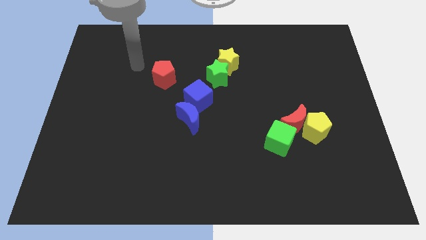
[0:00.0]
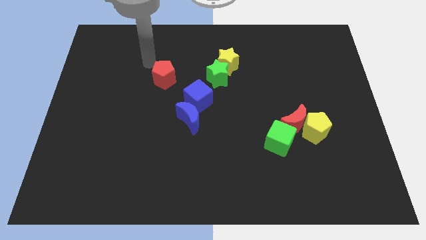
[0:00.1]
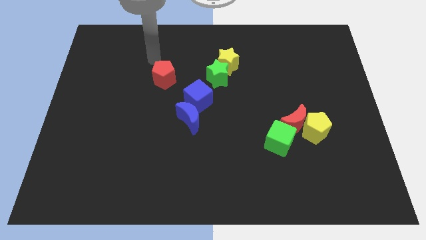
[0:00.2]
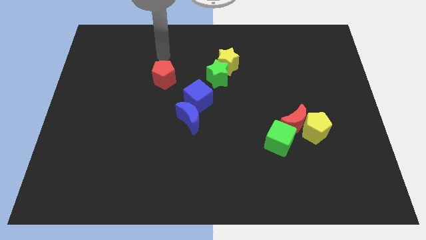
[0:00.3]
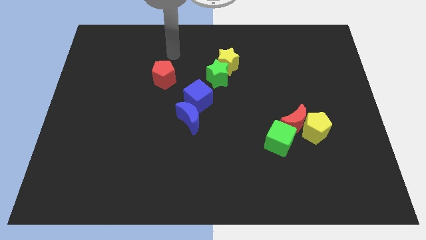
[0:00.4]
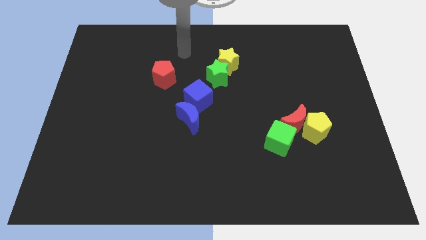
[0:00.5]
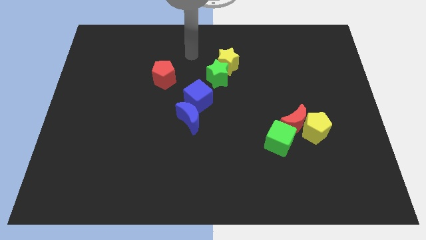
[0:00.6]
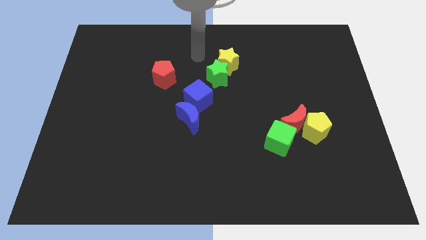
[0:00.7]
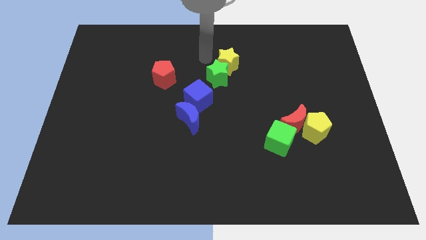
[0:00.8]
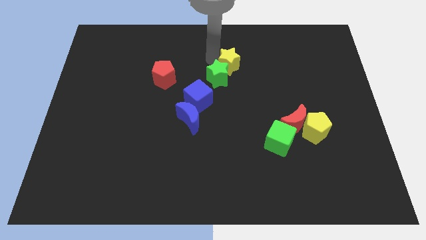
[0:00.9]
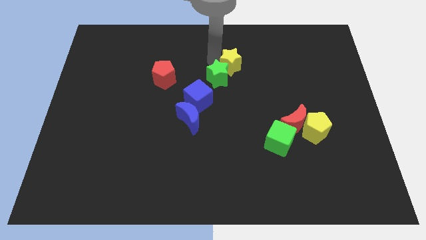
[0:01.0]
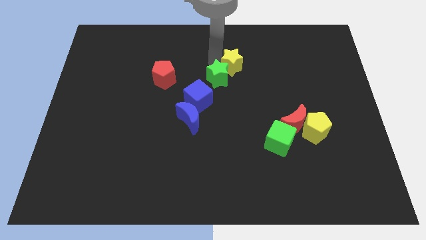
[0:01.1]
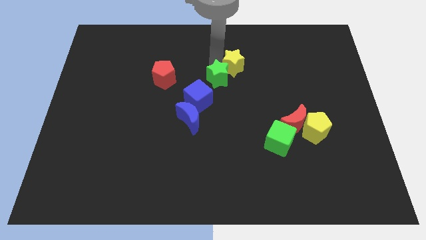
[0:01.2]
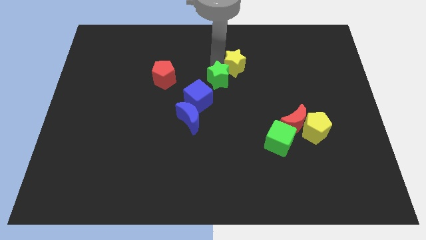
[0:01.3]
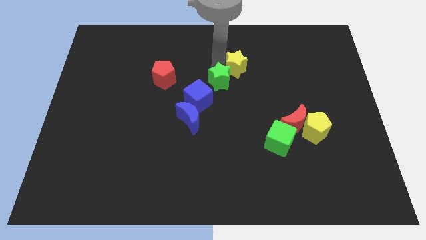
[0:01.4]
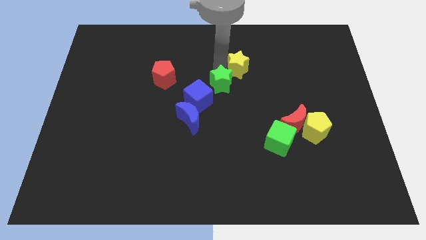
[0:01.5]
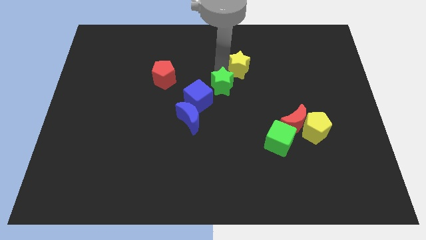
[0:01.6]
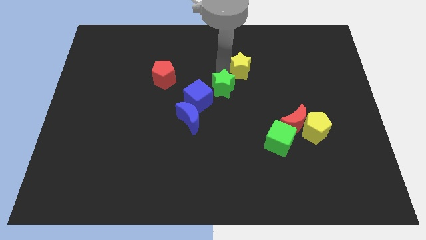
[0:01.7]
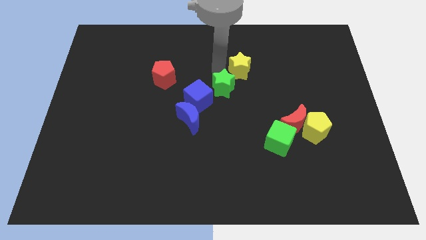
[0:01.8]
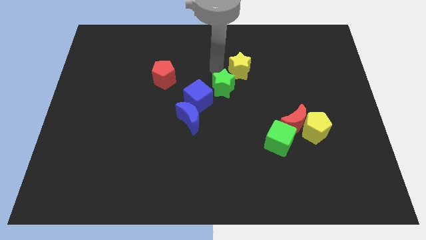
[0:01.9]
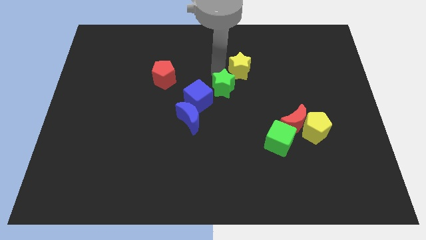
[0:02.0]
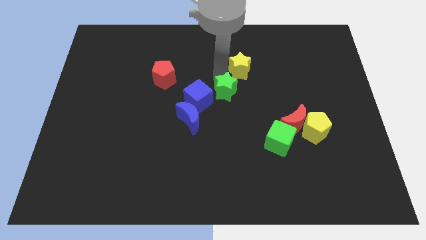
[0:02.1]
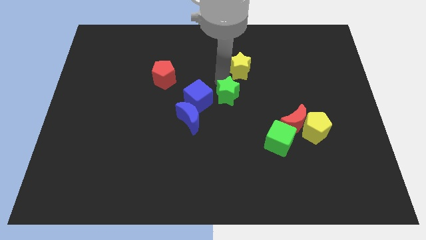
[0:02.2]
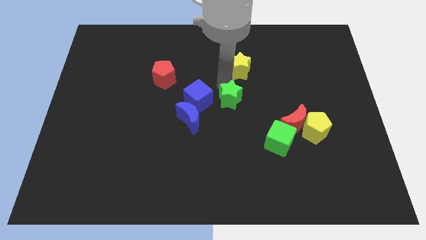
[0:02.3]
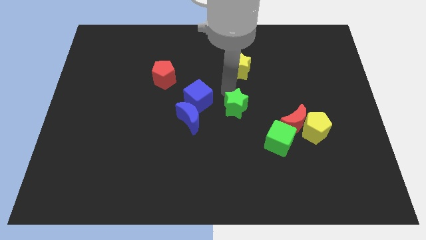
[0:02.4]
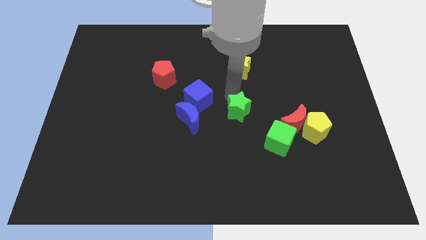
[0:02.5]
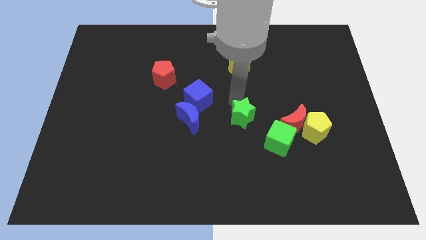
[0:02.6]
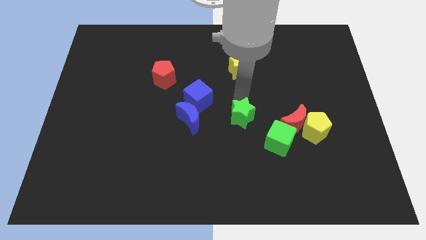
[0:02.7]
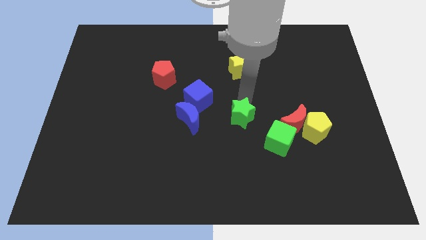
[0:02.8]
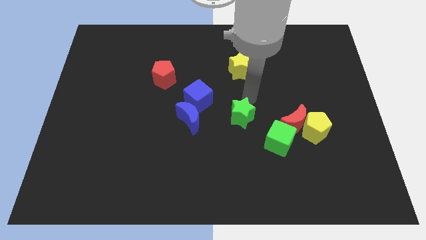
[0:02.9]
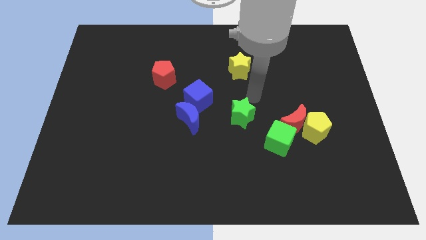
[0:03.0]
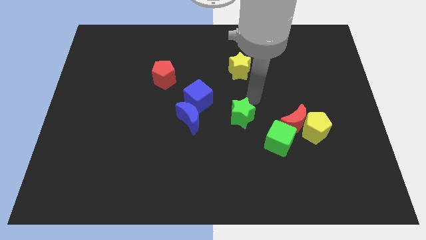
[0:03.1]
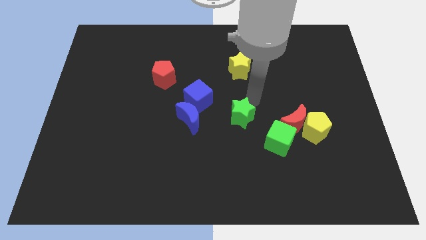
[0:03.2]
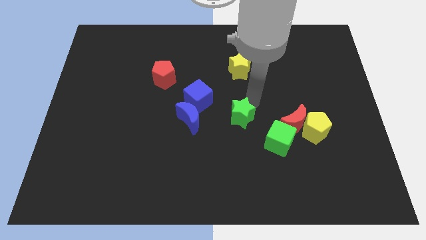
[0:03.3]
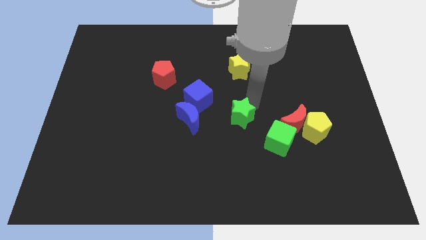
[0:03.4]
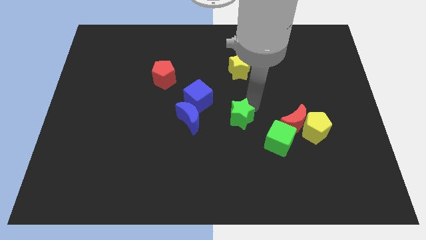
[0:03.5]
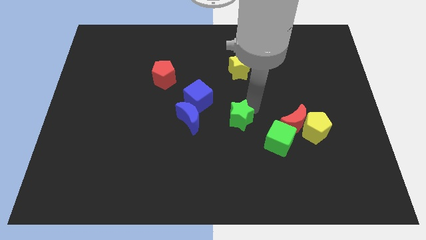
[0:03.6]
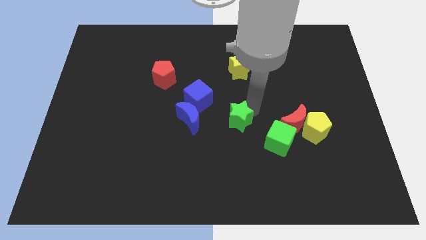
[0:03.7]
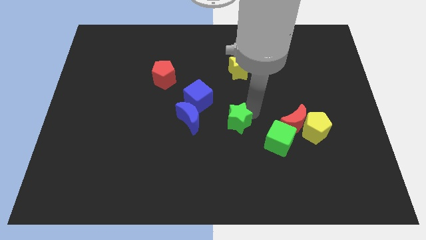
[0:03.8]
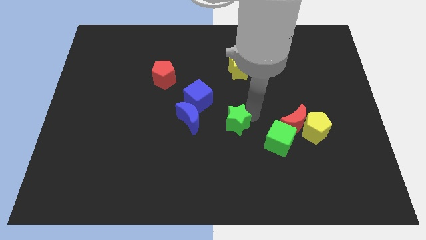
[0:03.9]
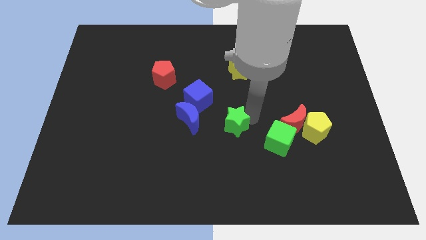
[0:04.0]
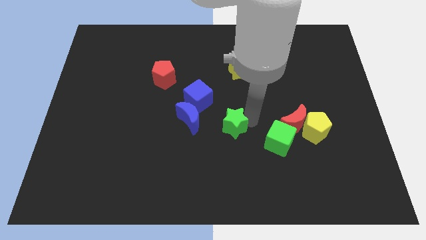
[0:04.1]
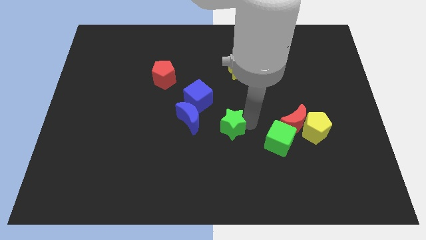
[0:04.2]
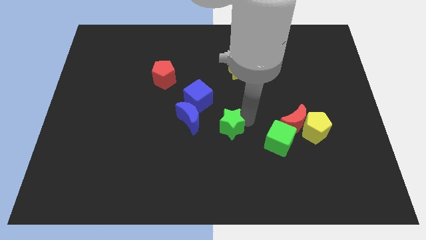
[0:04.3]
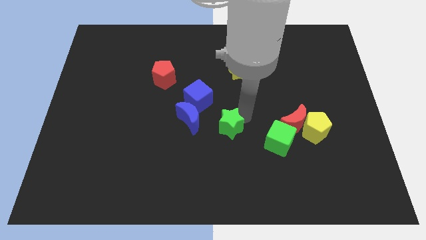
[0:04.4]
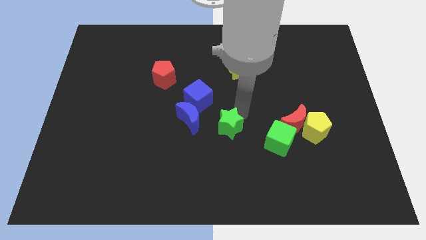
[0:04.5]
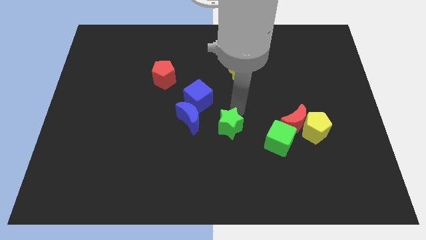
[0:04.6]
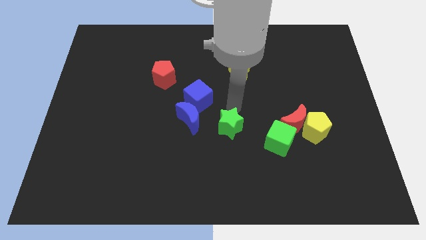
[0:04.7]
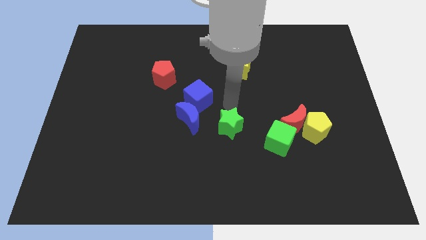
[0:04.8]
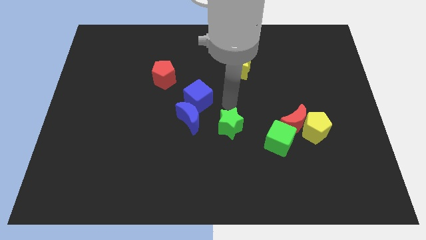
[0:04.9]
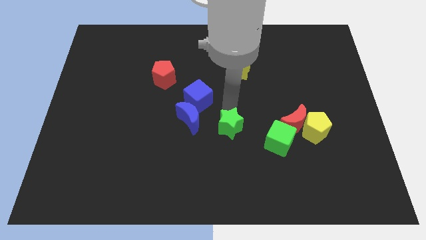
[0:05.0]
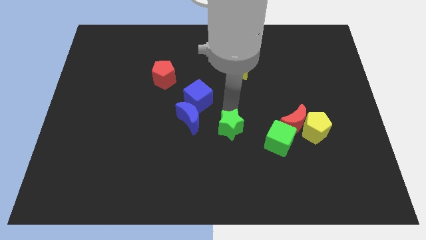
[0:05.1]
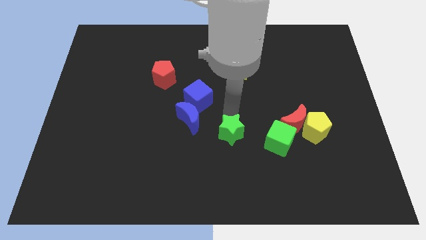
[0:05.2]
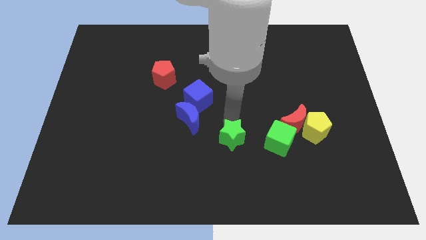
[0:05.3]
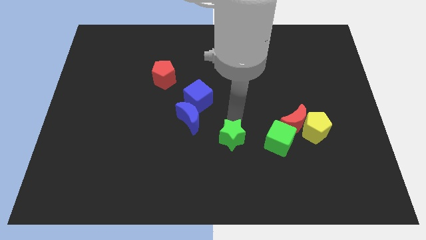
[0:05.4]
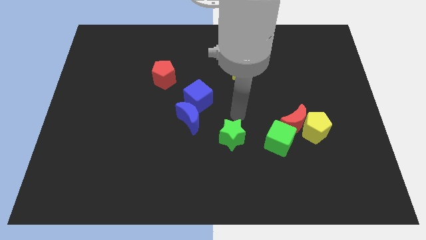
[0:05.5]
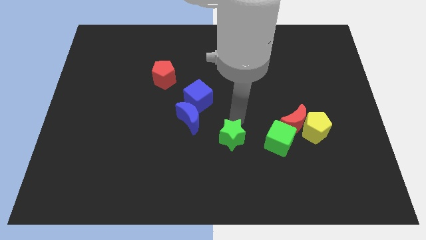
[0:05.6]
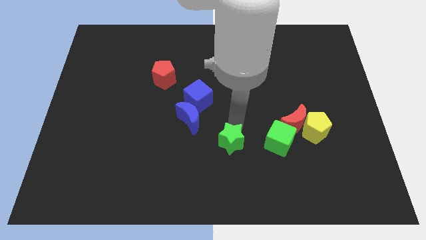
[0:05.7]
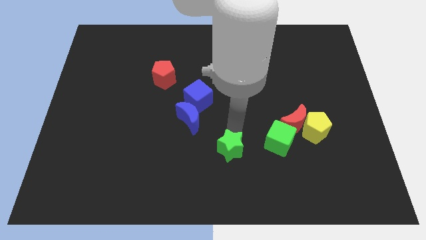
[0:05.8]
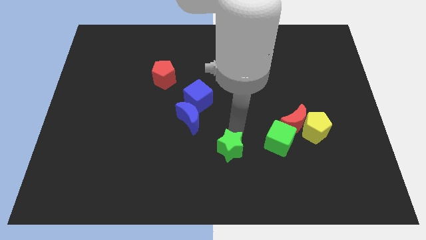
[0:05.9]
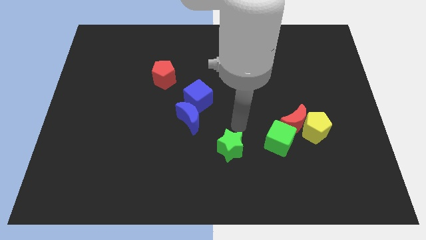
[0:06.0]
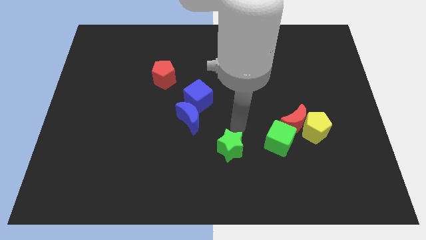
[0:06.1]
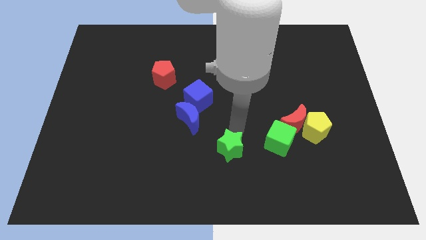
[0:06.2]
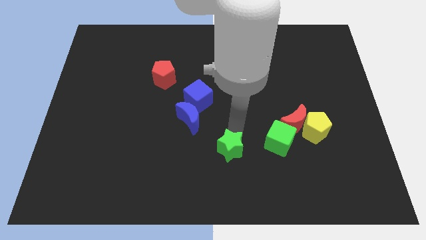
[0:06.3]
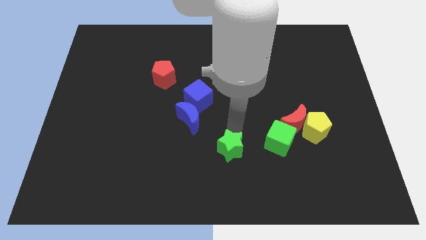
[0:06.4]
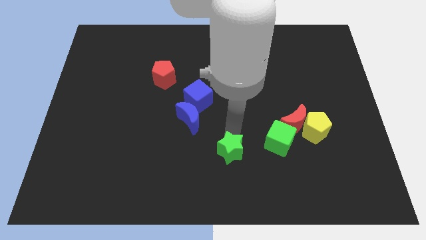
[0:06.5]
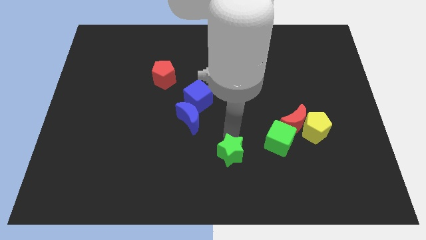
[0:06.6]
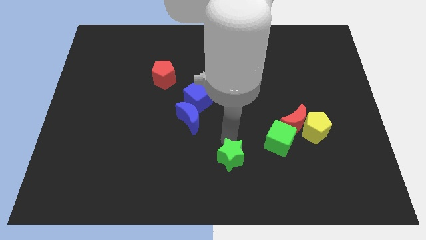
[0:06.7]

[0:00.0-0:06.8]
put the green star to the bottom

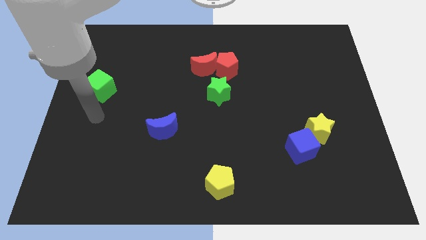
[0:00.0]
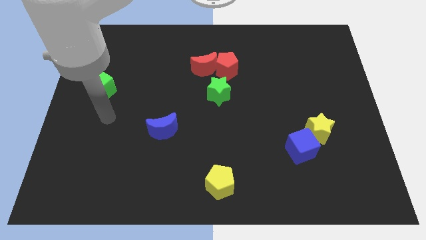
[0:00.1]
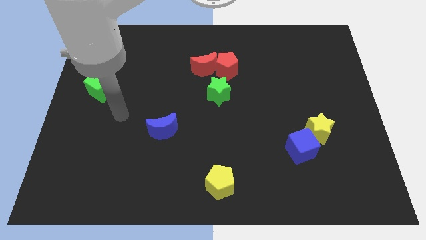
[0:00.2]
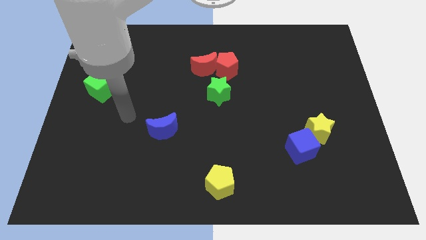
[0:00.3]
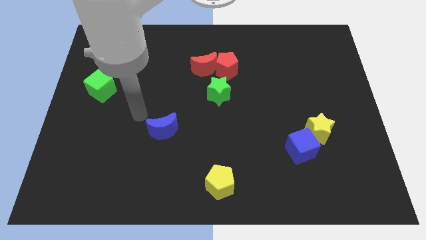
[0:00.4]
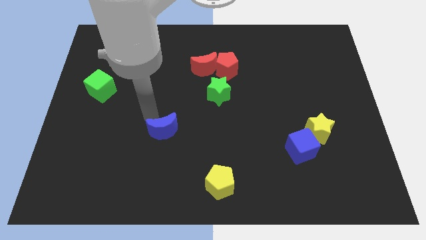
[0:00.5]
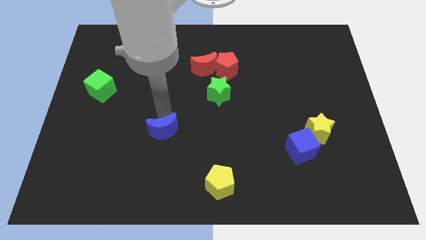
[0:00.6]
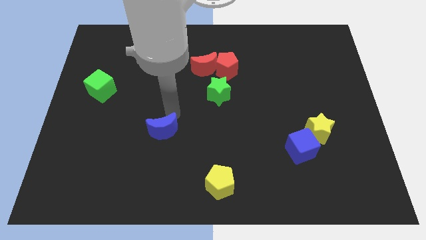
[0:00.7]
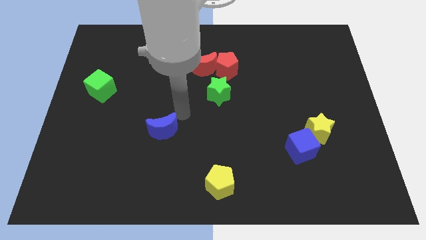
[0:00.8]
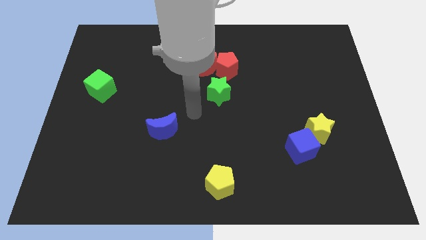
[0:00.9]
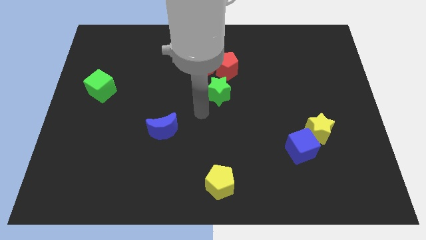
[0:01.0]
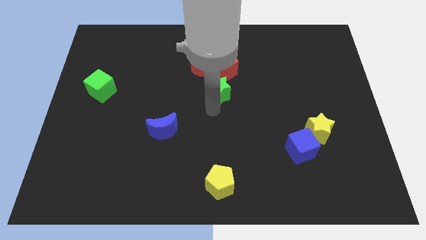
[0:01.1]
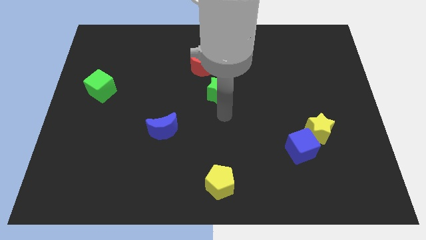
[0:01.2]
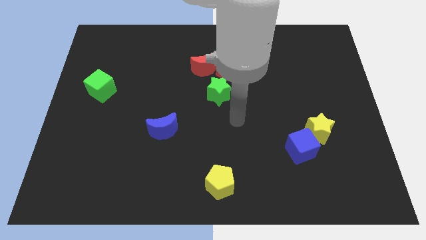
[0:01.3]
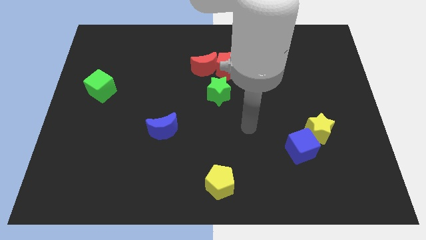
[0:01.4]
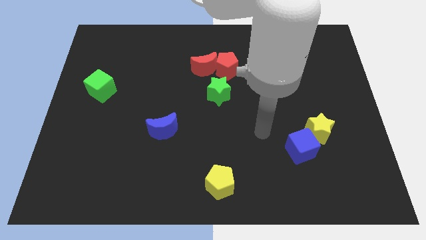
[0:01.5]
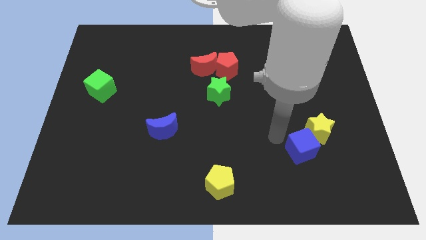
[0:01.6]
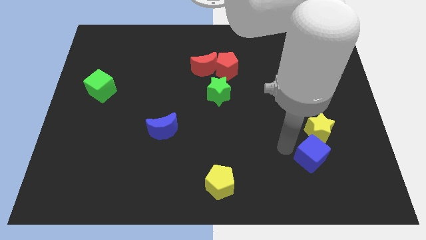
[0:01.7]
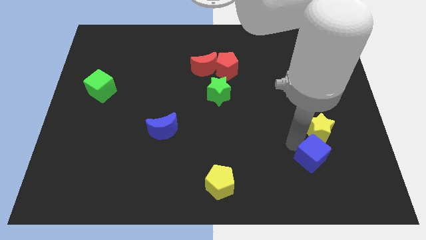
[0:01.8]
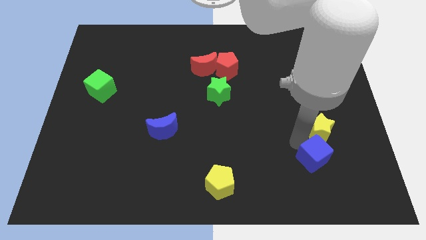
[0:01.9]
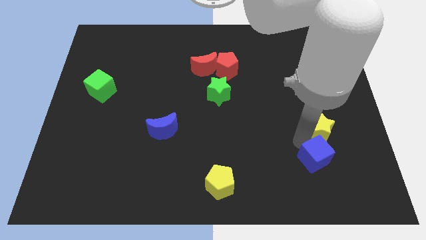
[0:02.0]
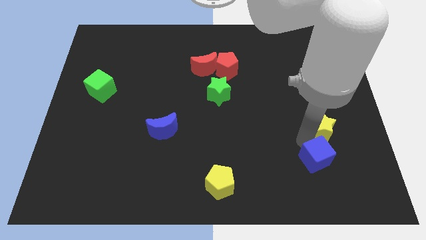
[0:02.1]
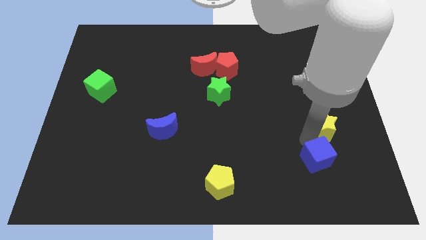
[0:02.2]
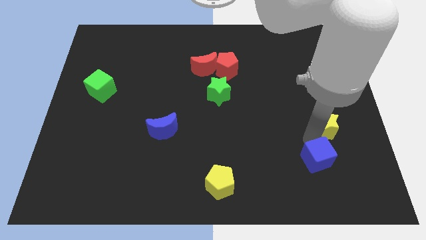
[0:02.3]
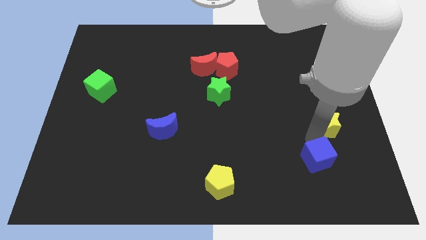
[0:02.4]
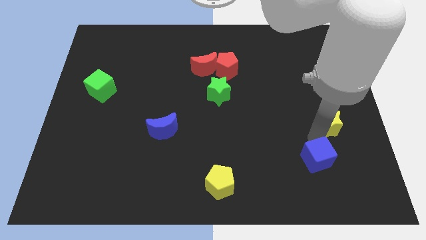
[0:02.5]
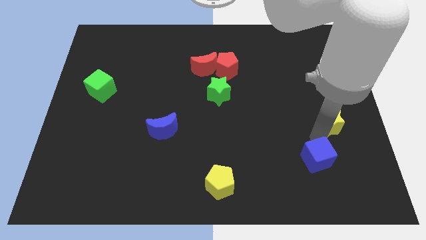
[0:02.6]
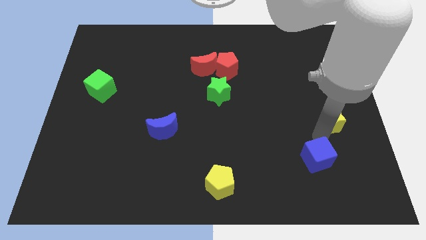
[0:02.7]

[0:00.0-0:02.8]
move the yellow star to the right side
